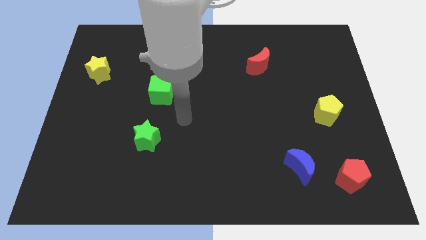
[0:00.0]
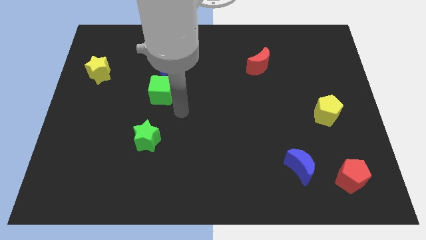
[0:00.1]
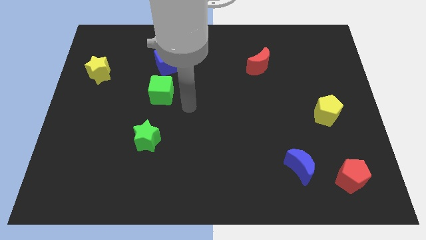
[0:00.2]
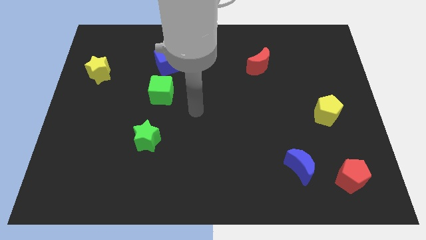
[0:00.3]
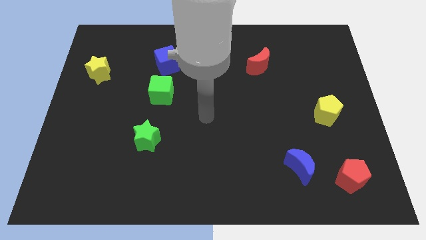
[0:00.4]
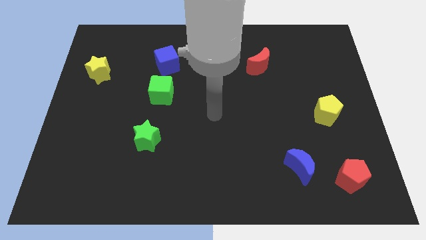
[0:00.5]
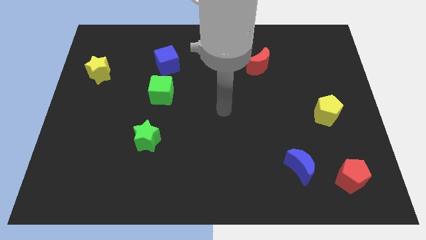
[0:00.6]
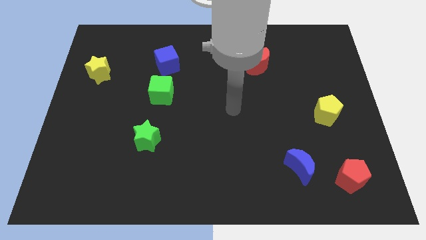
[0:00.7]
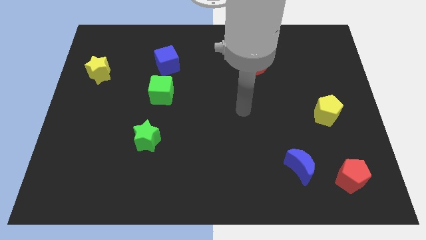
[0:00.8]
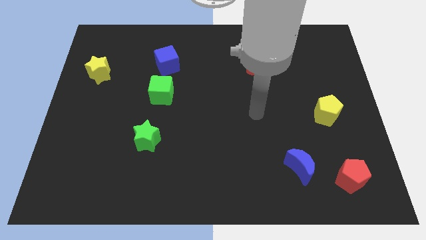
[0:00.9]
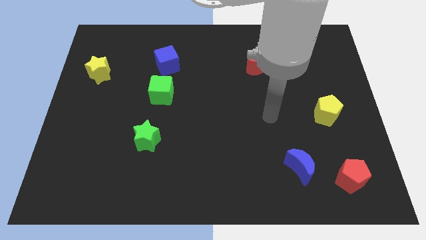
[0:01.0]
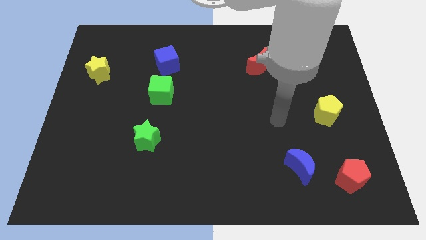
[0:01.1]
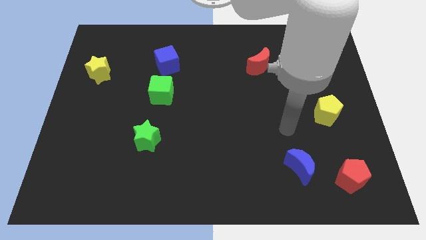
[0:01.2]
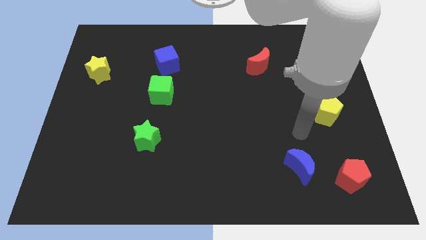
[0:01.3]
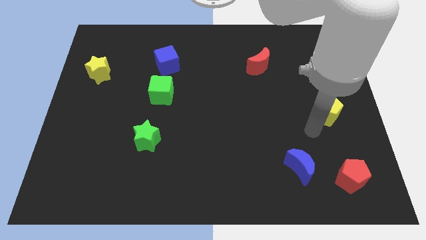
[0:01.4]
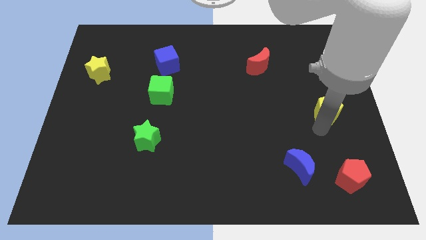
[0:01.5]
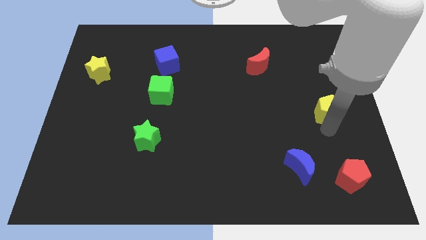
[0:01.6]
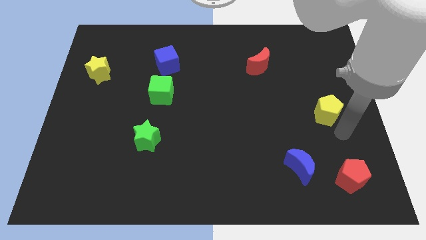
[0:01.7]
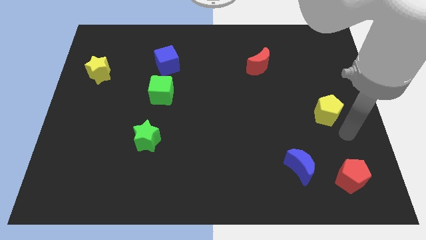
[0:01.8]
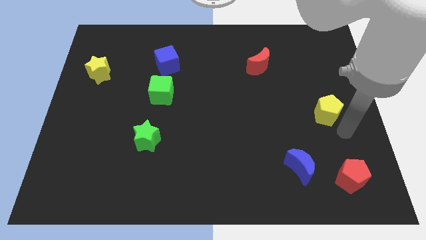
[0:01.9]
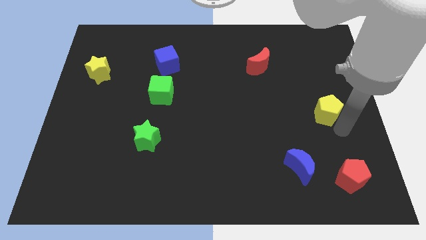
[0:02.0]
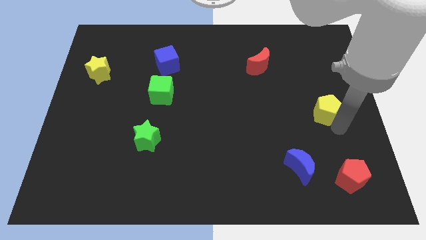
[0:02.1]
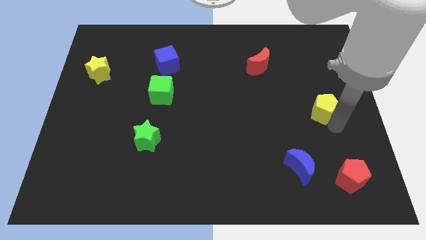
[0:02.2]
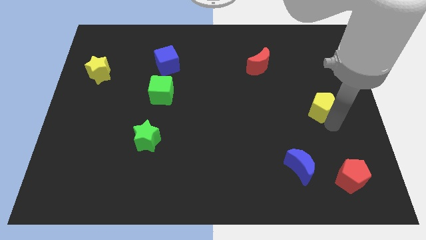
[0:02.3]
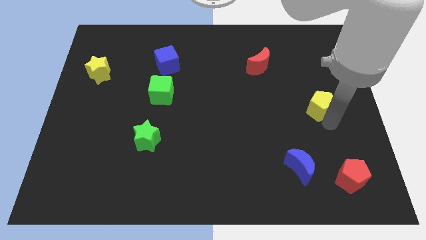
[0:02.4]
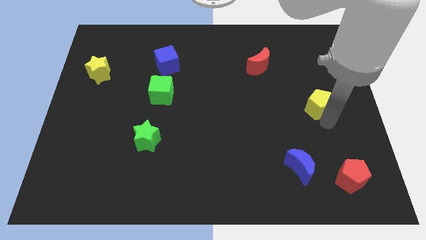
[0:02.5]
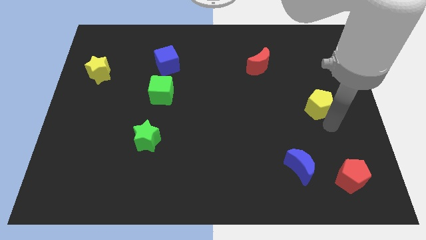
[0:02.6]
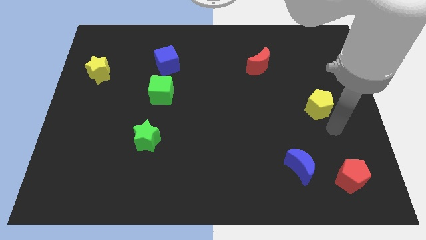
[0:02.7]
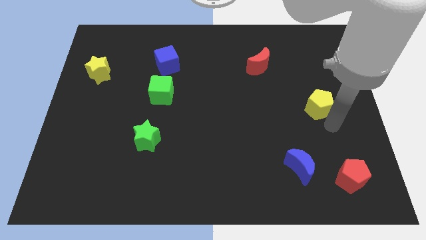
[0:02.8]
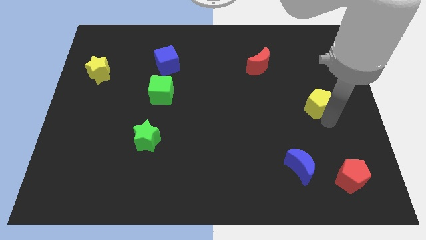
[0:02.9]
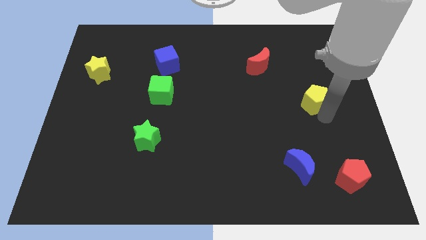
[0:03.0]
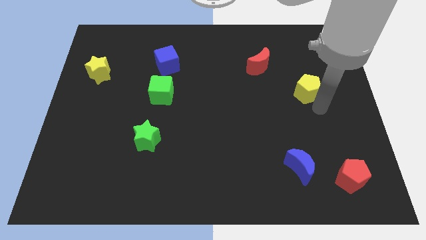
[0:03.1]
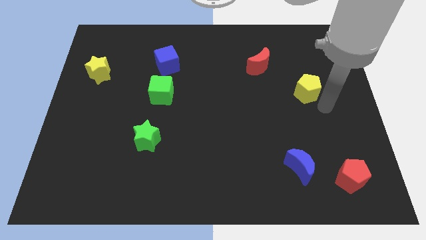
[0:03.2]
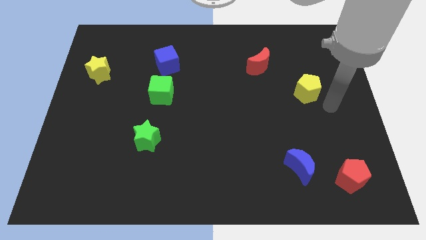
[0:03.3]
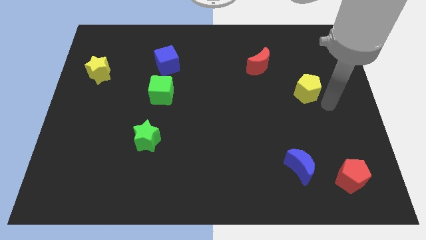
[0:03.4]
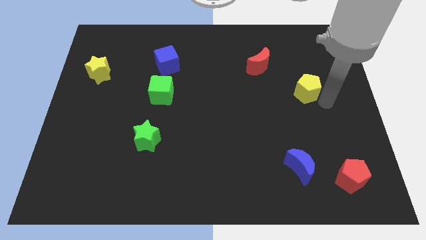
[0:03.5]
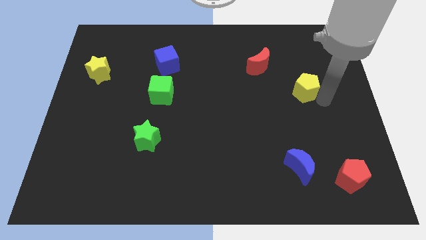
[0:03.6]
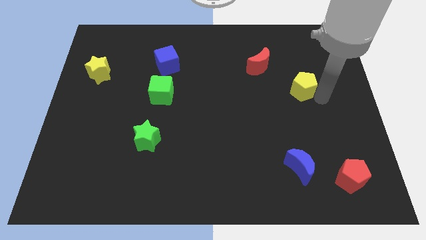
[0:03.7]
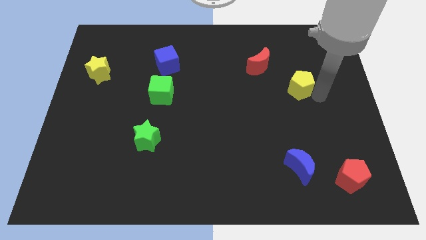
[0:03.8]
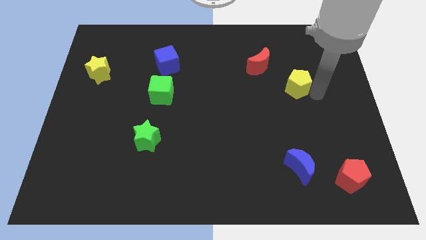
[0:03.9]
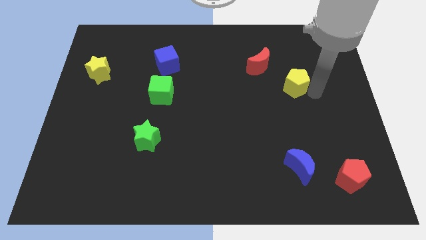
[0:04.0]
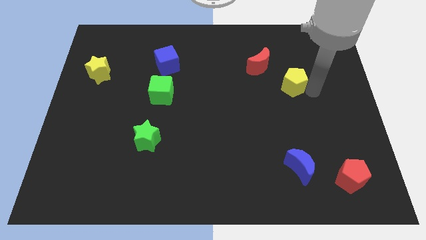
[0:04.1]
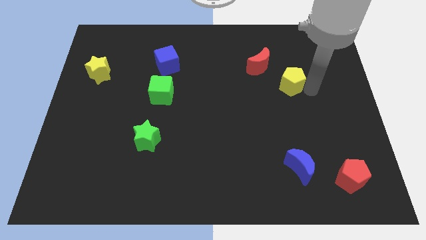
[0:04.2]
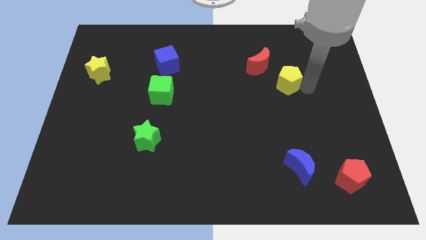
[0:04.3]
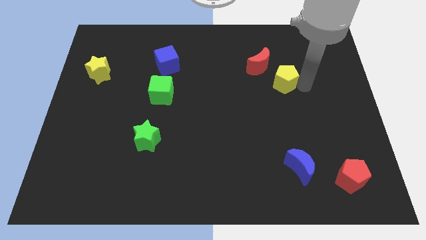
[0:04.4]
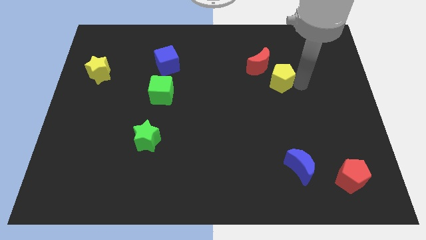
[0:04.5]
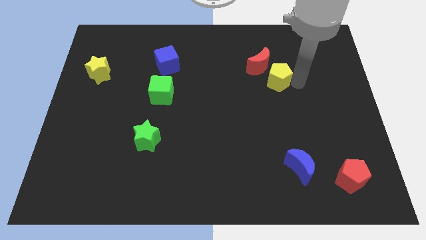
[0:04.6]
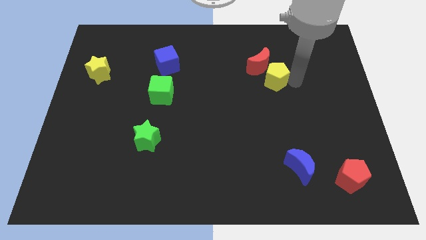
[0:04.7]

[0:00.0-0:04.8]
push the yellow pentagon close to the red moon

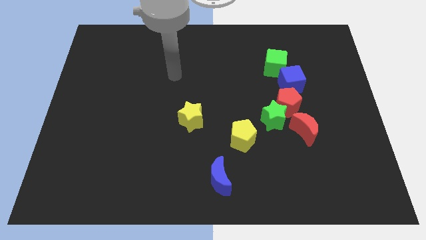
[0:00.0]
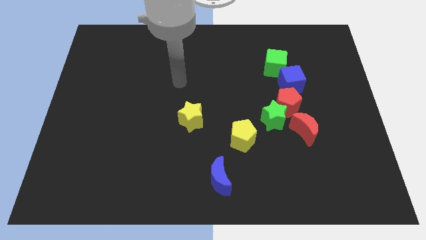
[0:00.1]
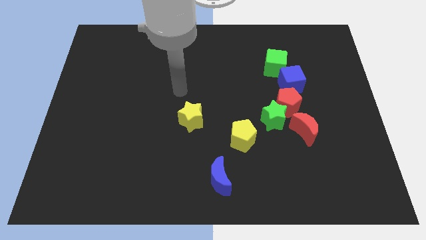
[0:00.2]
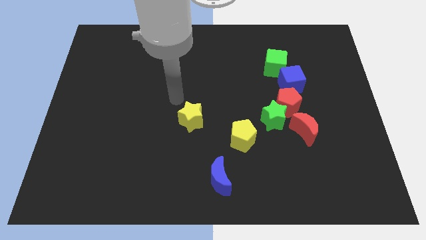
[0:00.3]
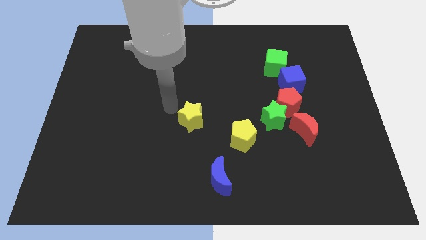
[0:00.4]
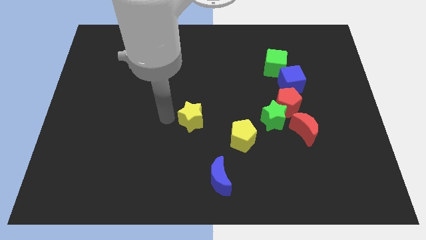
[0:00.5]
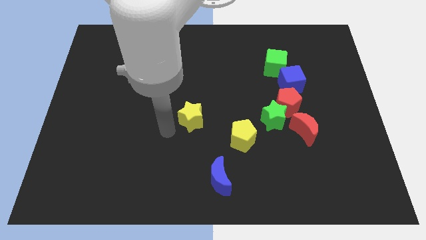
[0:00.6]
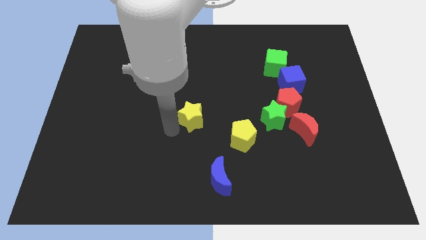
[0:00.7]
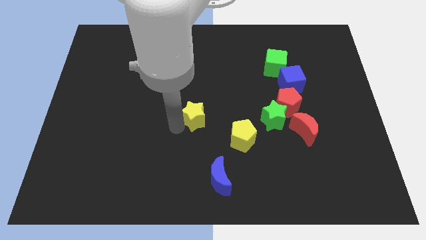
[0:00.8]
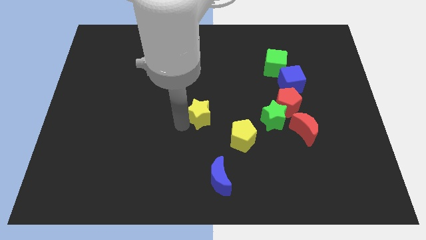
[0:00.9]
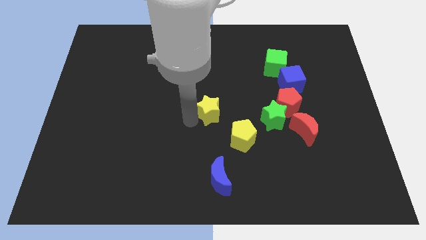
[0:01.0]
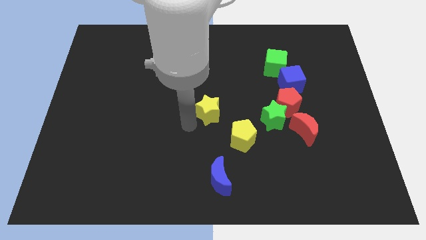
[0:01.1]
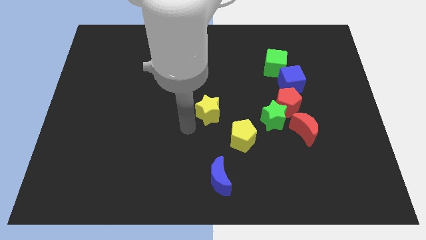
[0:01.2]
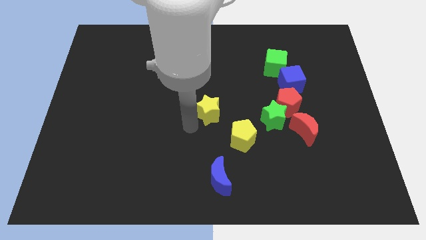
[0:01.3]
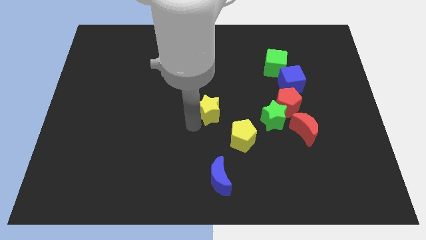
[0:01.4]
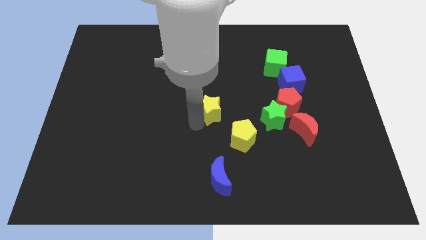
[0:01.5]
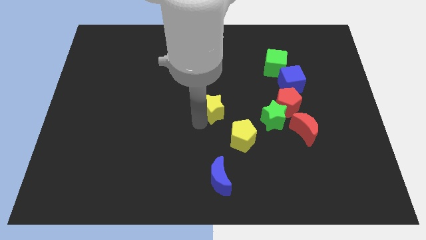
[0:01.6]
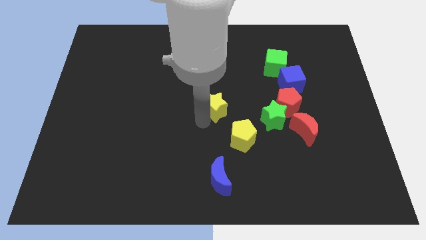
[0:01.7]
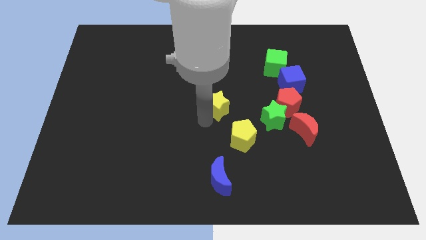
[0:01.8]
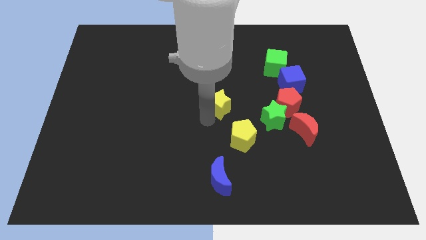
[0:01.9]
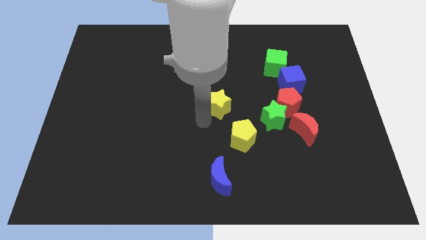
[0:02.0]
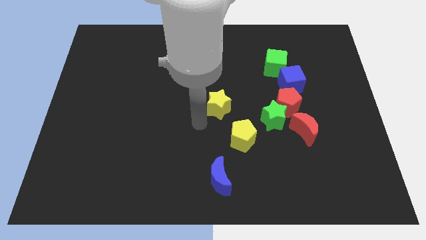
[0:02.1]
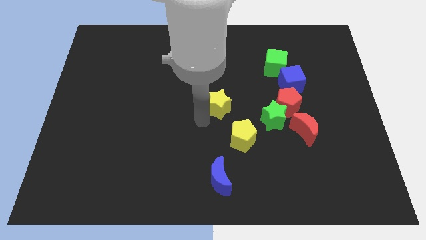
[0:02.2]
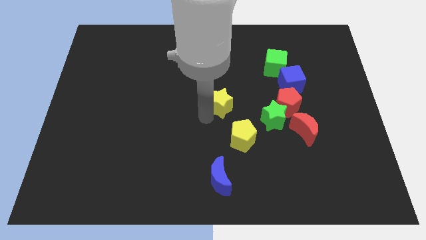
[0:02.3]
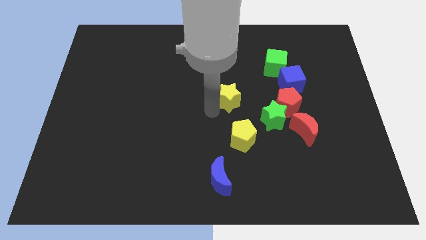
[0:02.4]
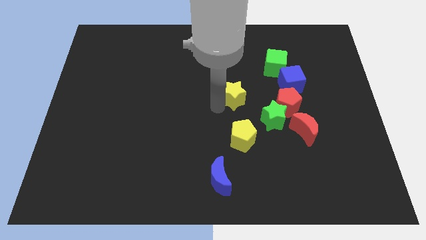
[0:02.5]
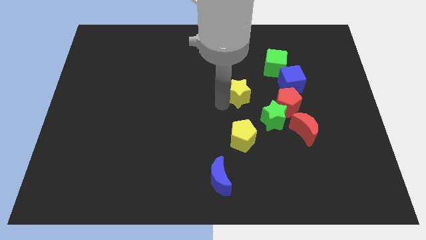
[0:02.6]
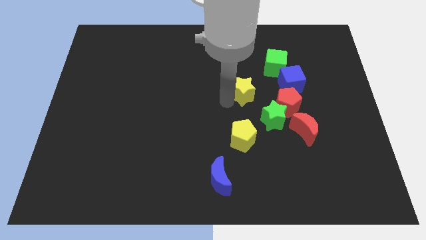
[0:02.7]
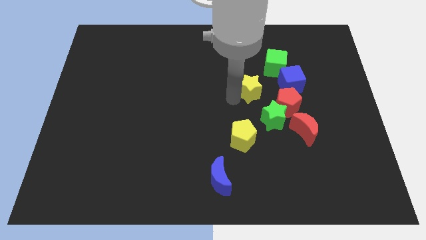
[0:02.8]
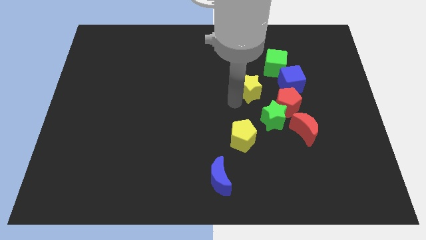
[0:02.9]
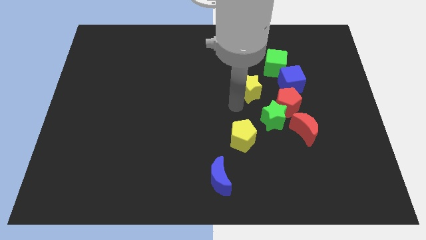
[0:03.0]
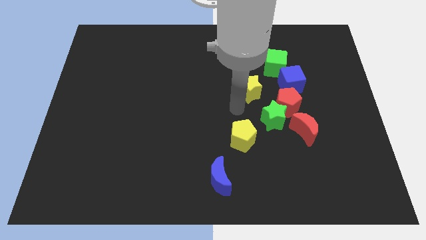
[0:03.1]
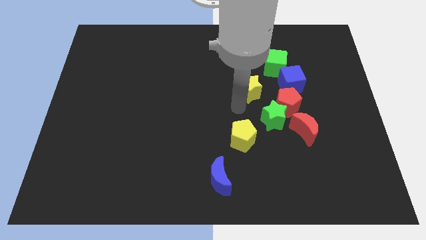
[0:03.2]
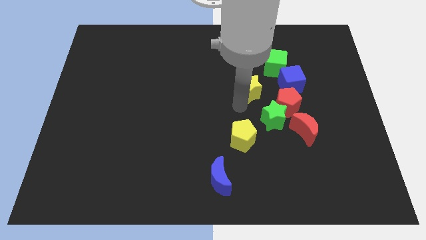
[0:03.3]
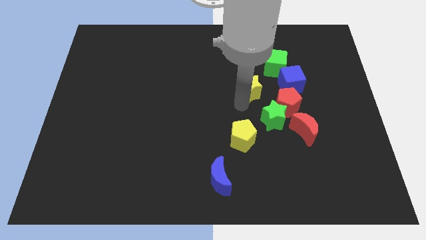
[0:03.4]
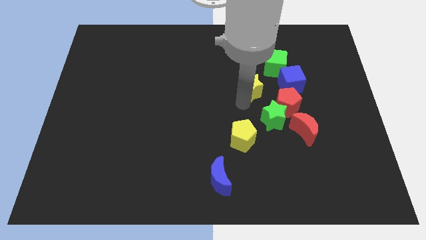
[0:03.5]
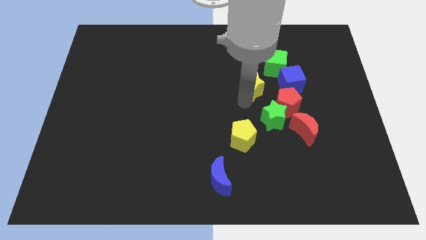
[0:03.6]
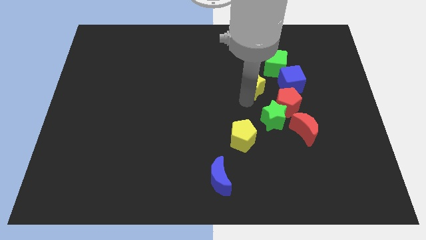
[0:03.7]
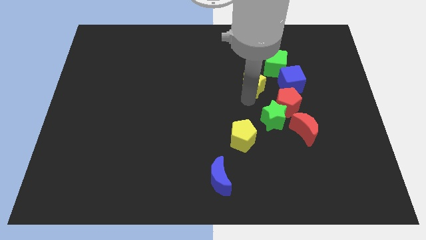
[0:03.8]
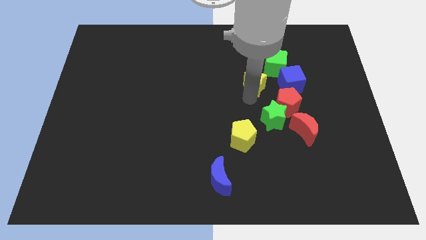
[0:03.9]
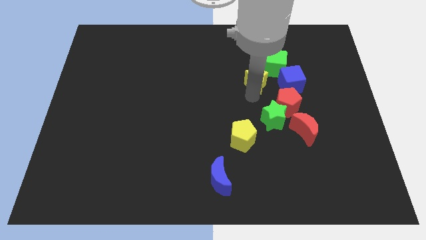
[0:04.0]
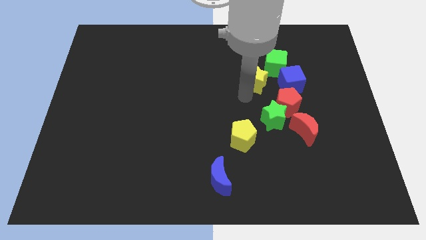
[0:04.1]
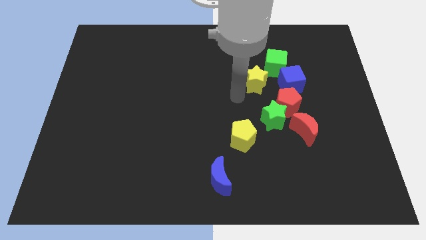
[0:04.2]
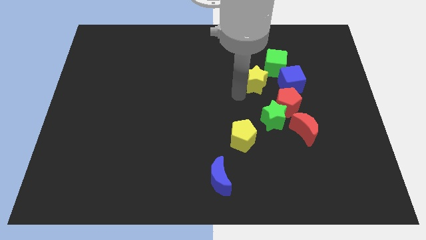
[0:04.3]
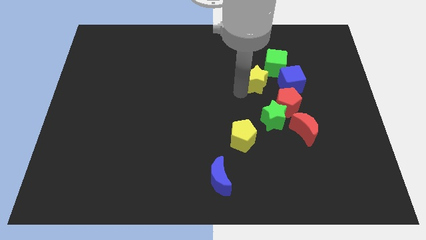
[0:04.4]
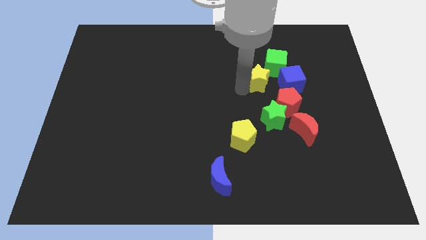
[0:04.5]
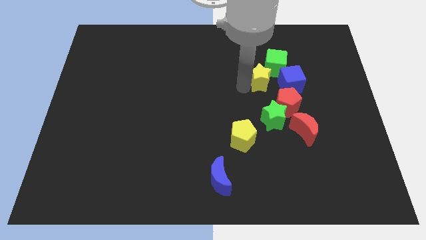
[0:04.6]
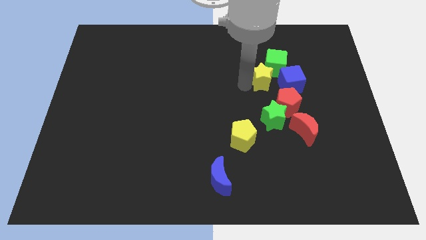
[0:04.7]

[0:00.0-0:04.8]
put the yellow star next to the green cube
